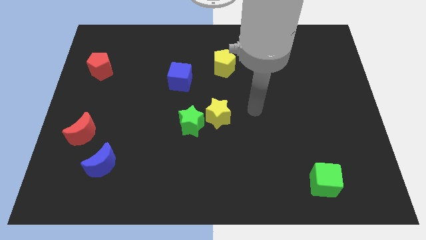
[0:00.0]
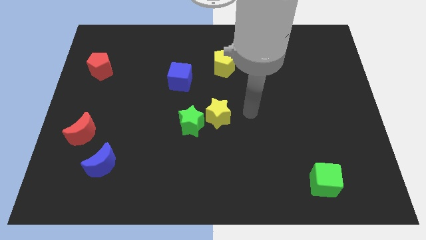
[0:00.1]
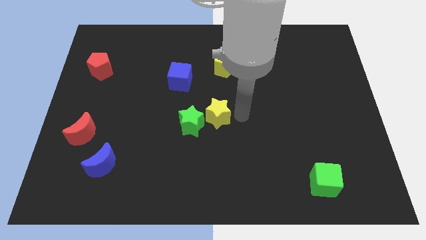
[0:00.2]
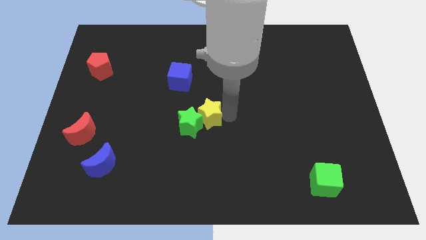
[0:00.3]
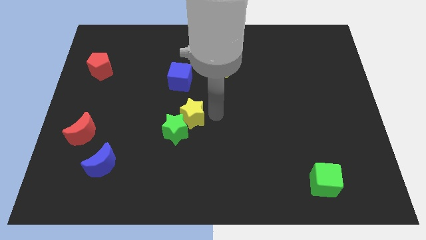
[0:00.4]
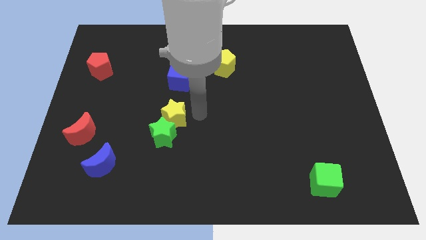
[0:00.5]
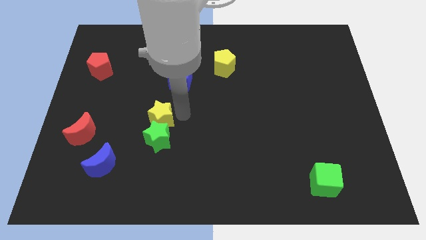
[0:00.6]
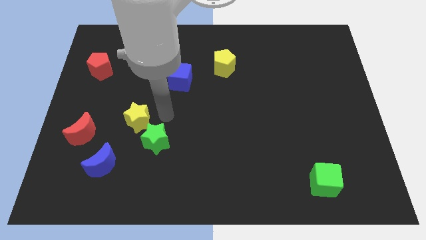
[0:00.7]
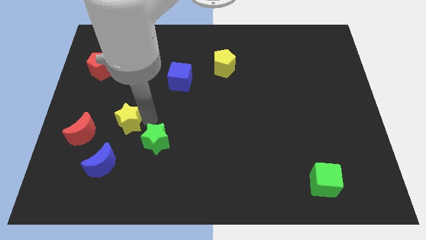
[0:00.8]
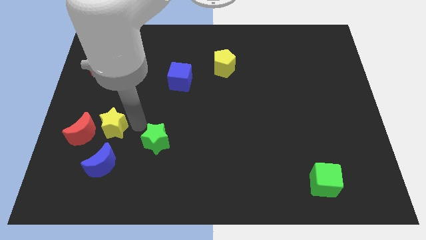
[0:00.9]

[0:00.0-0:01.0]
move the green star away from the yellow star

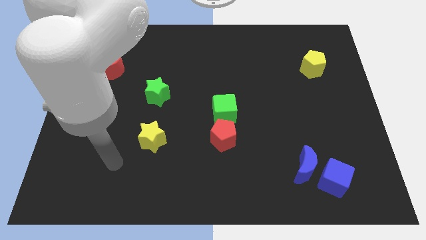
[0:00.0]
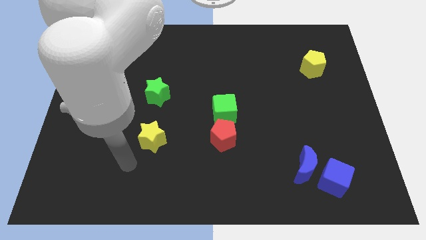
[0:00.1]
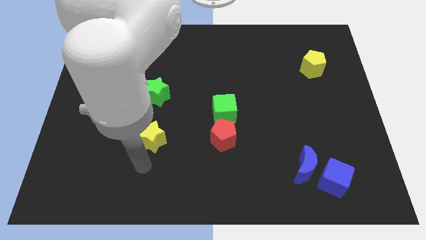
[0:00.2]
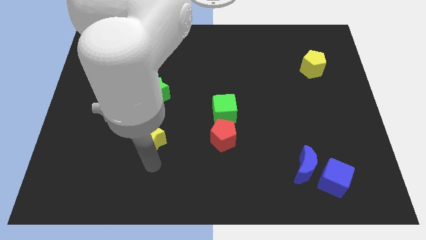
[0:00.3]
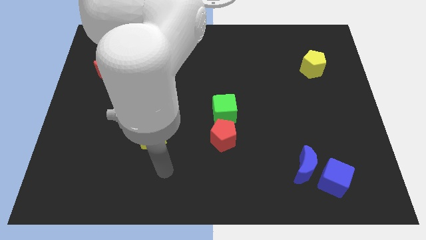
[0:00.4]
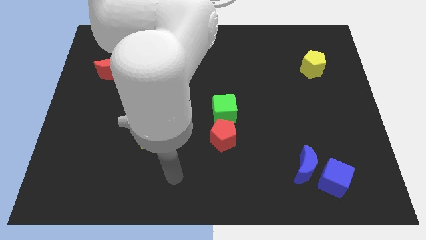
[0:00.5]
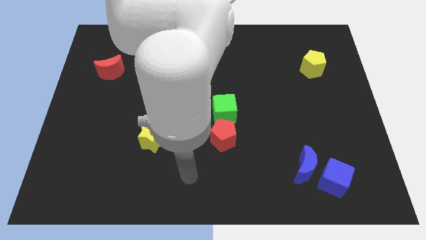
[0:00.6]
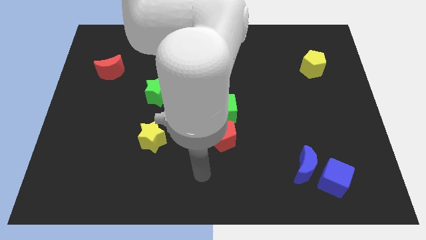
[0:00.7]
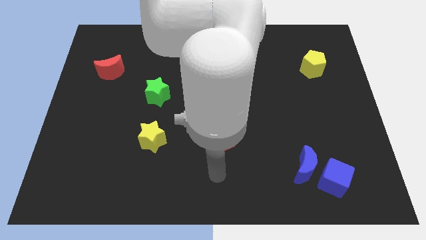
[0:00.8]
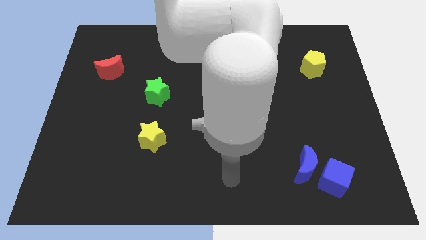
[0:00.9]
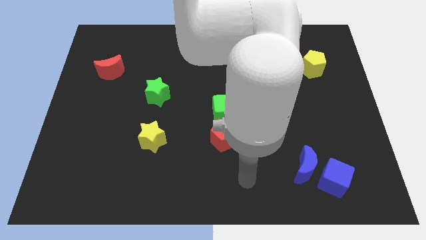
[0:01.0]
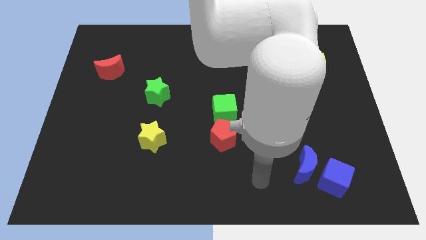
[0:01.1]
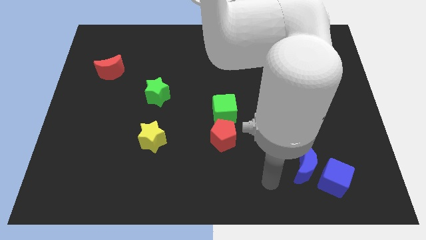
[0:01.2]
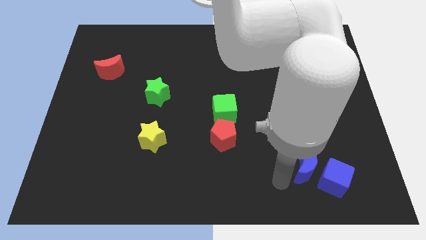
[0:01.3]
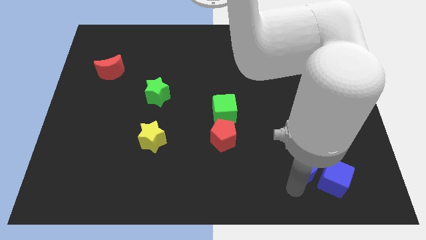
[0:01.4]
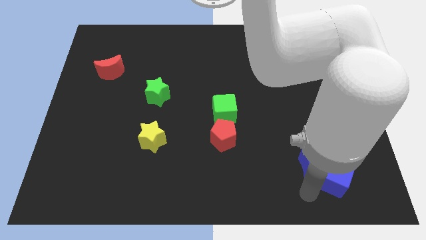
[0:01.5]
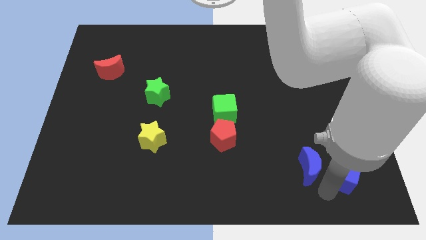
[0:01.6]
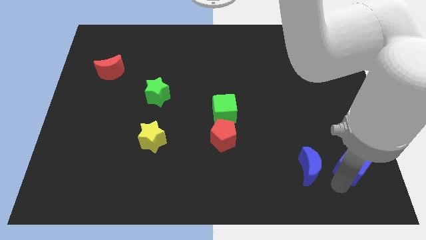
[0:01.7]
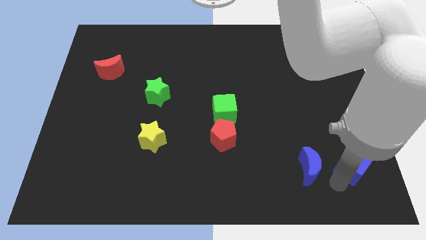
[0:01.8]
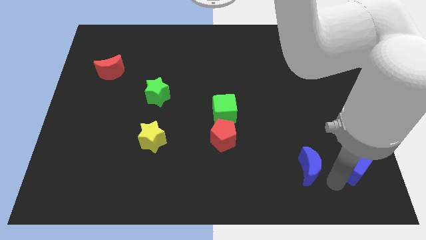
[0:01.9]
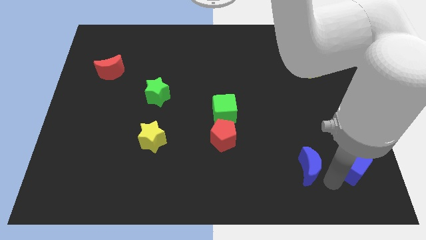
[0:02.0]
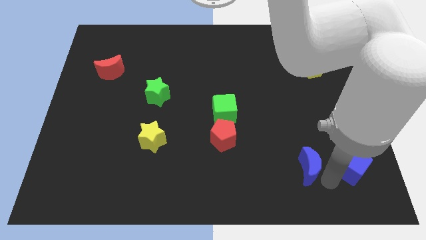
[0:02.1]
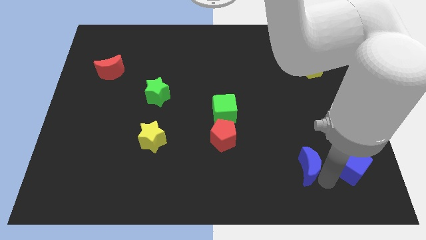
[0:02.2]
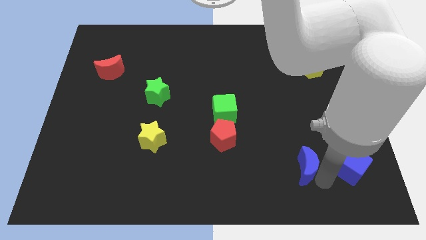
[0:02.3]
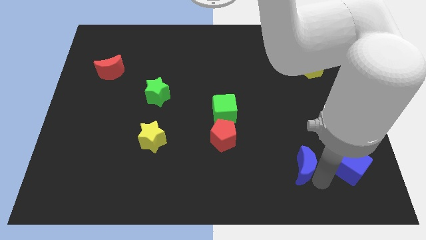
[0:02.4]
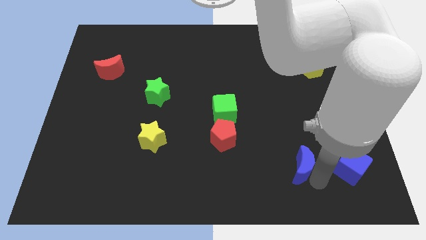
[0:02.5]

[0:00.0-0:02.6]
separate the blue moon from the blue cube

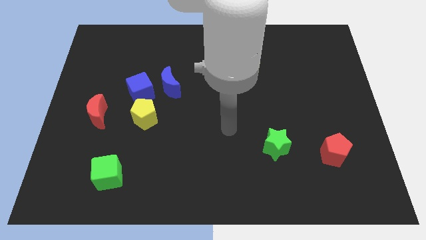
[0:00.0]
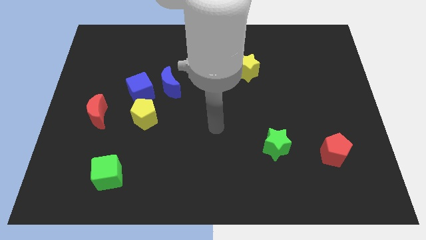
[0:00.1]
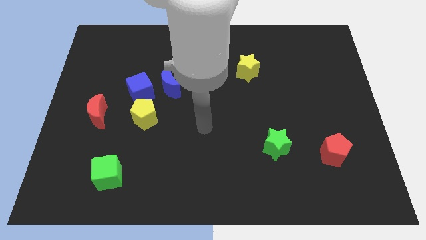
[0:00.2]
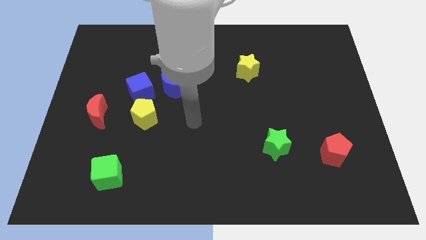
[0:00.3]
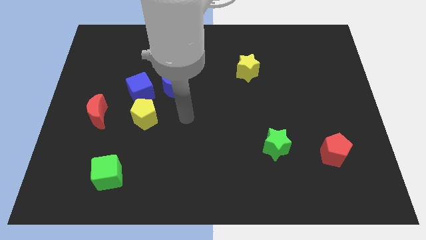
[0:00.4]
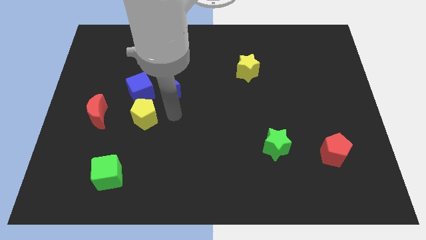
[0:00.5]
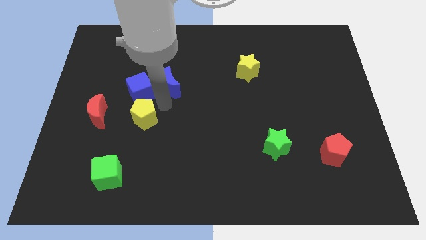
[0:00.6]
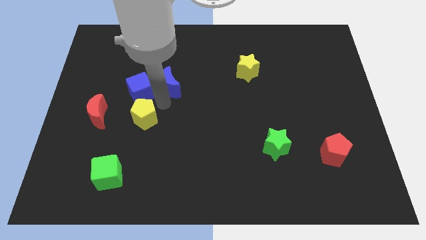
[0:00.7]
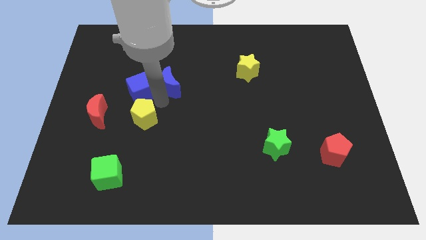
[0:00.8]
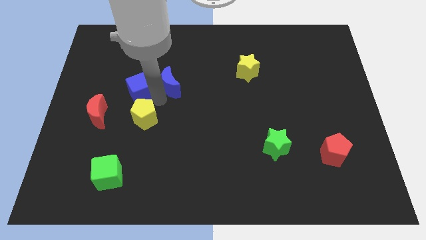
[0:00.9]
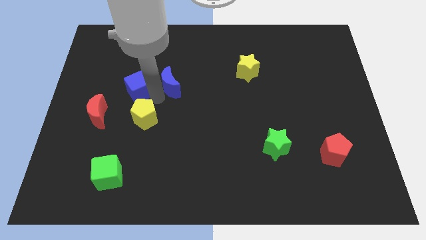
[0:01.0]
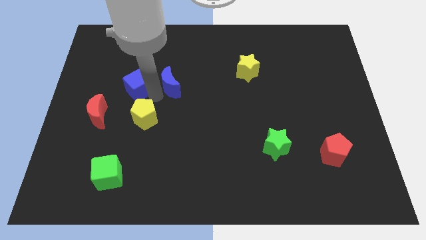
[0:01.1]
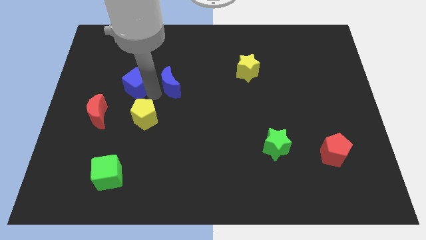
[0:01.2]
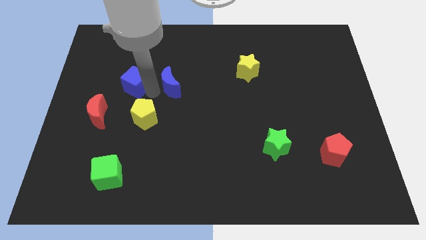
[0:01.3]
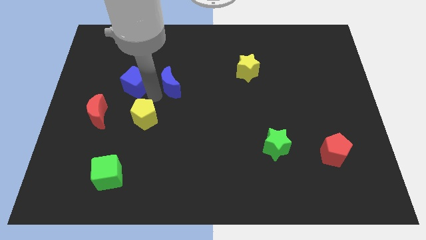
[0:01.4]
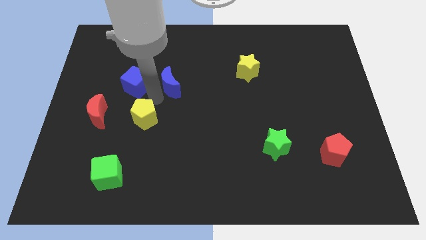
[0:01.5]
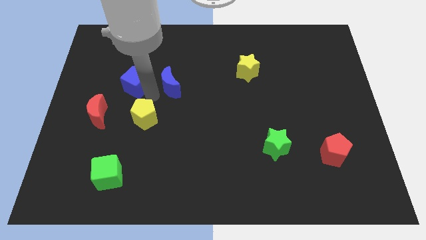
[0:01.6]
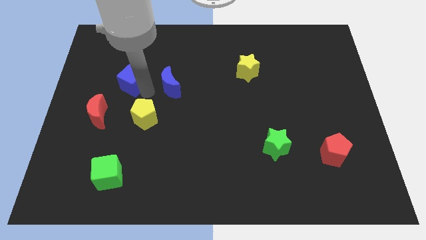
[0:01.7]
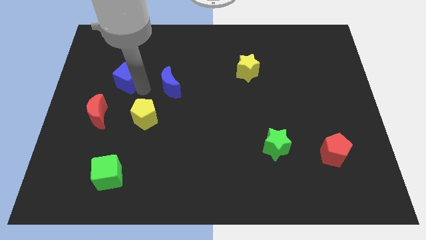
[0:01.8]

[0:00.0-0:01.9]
separate the blue cube from the blue moon and yellow pentagon

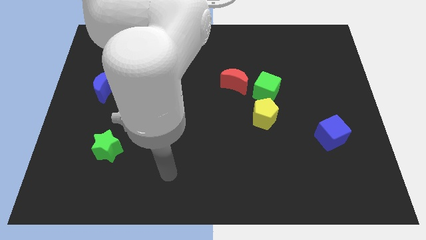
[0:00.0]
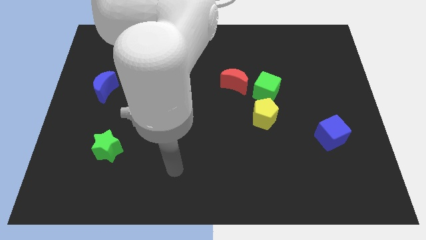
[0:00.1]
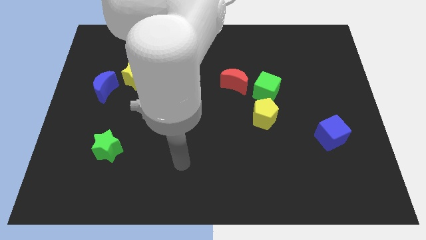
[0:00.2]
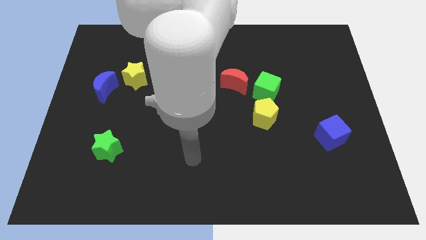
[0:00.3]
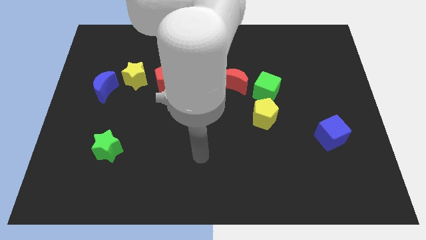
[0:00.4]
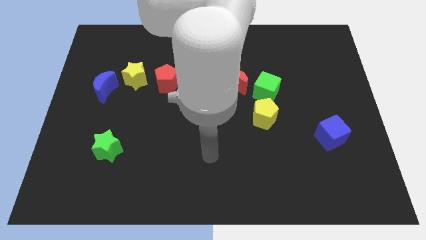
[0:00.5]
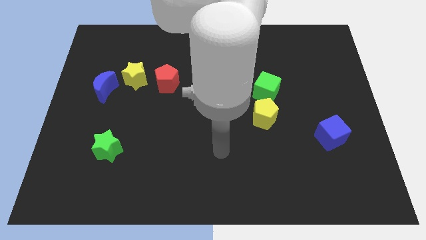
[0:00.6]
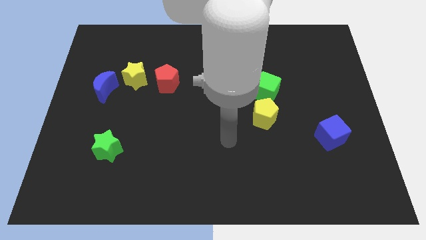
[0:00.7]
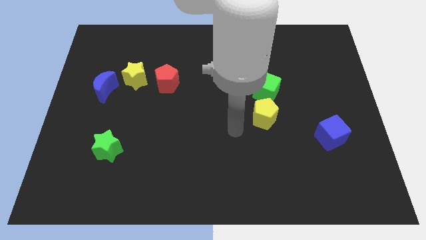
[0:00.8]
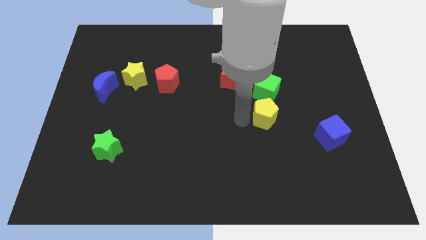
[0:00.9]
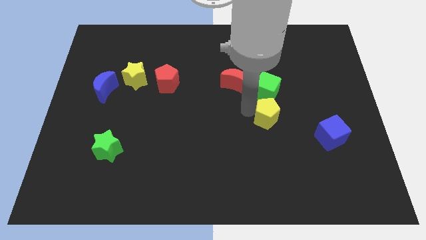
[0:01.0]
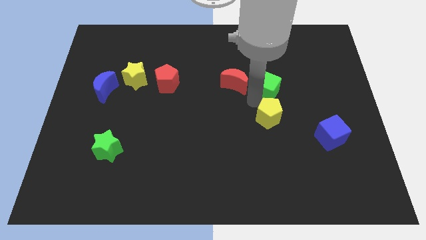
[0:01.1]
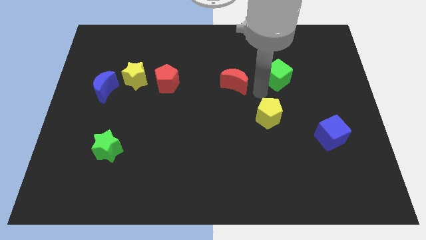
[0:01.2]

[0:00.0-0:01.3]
pull the red moon apart from the green cube

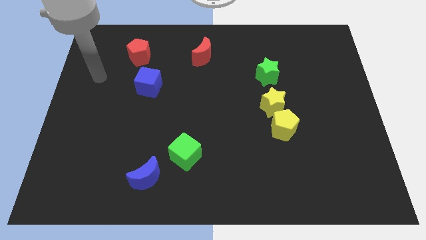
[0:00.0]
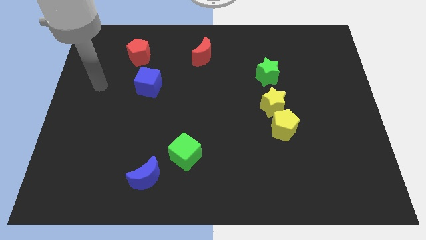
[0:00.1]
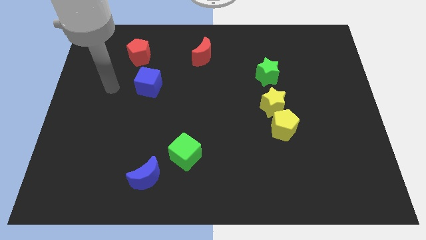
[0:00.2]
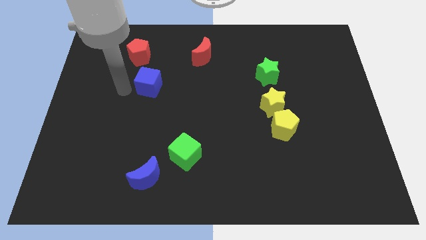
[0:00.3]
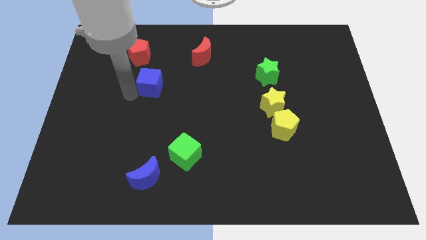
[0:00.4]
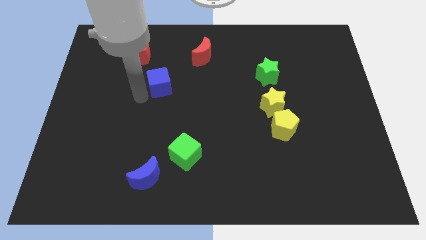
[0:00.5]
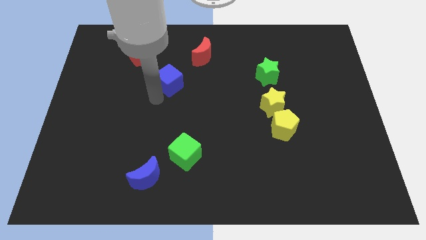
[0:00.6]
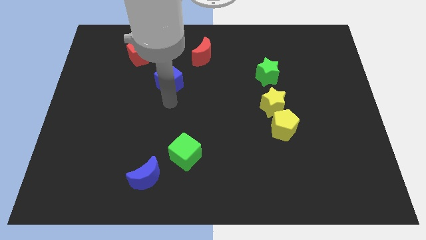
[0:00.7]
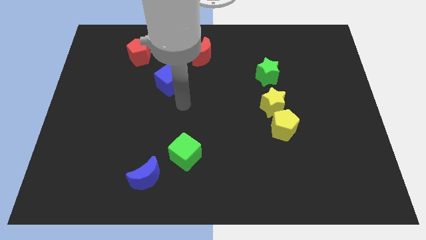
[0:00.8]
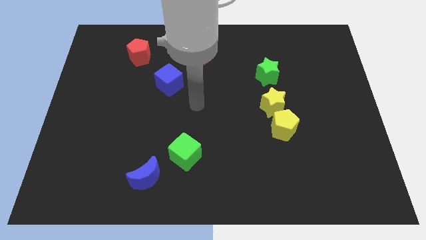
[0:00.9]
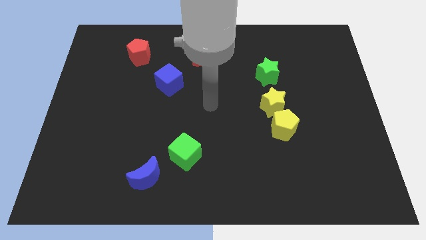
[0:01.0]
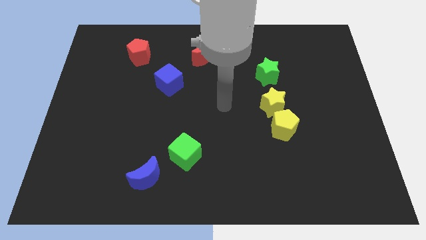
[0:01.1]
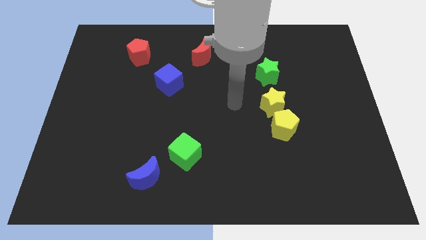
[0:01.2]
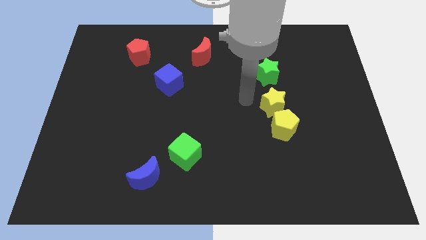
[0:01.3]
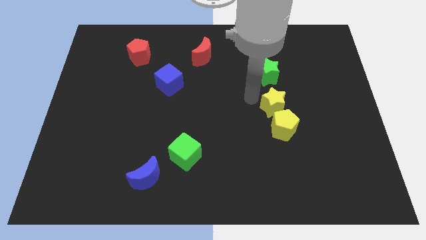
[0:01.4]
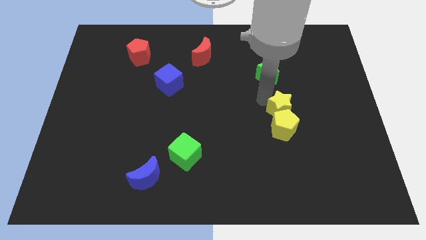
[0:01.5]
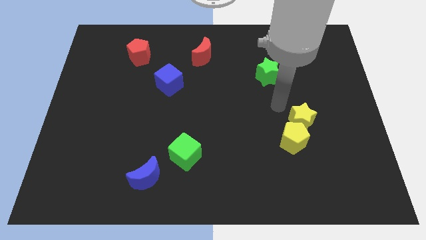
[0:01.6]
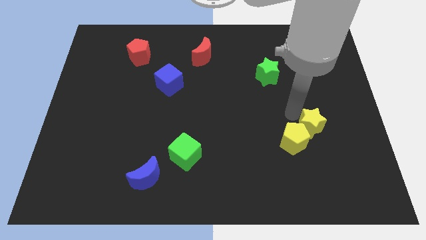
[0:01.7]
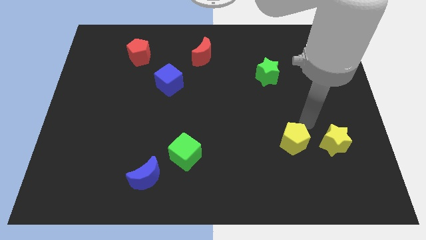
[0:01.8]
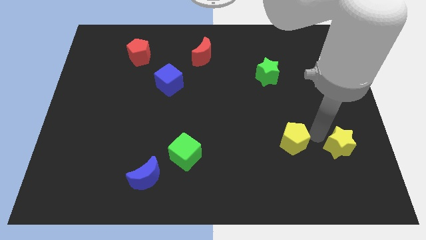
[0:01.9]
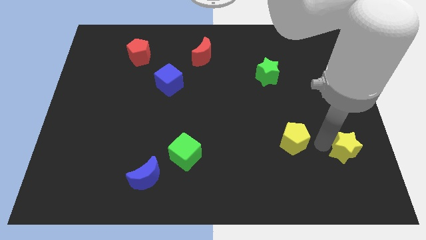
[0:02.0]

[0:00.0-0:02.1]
separate the yellow pentagon from the yellow star

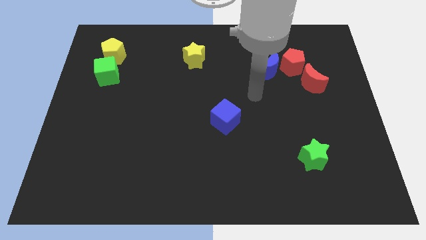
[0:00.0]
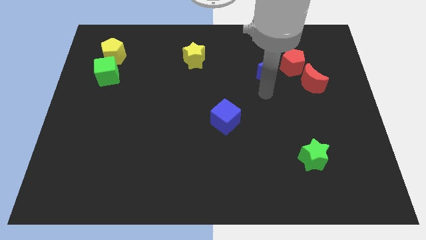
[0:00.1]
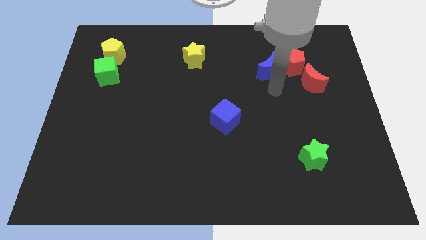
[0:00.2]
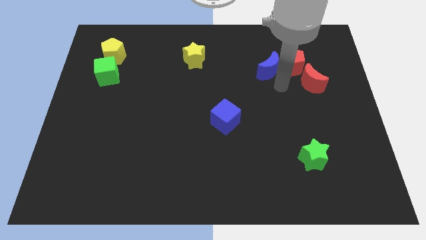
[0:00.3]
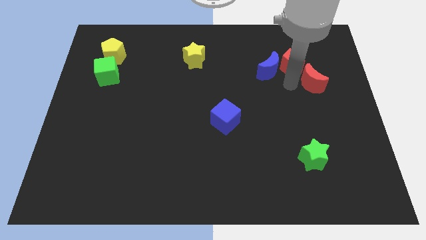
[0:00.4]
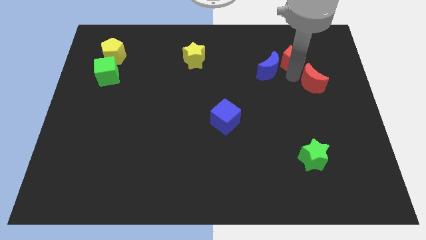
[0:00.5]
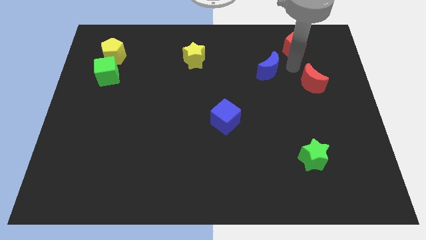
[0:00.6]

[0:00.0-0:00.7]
move the blue moon away from the red pentagon
